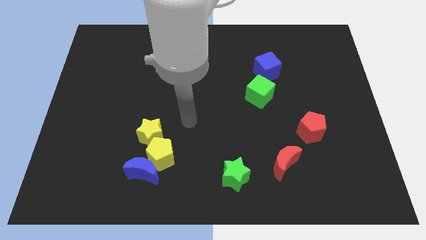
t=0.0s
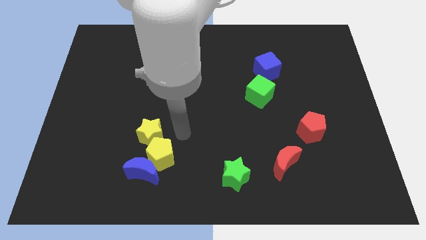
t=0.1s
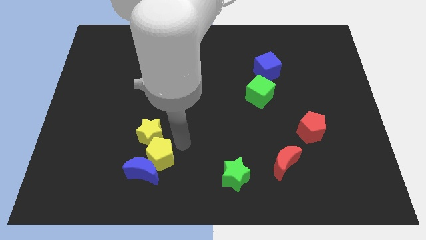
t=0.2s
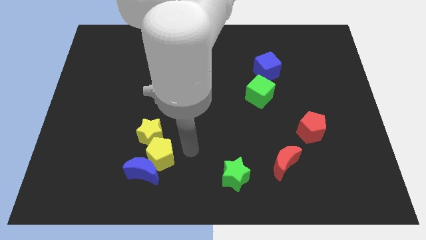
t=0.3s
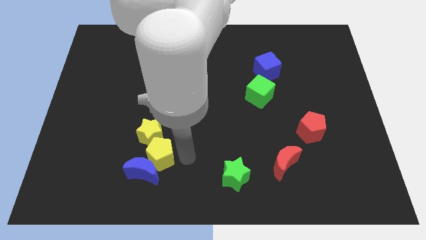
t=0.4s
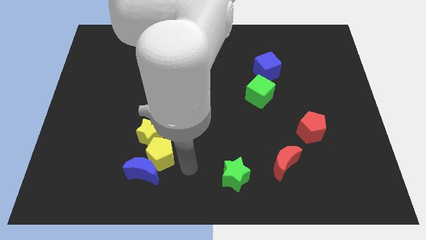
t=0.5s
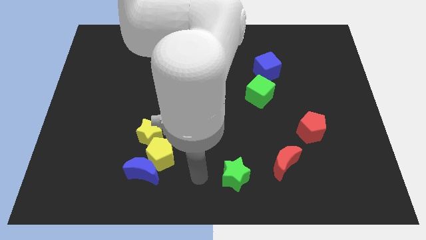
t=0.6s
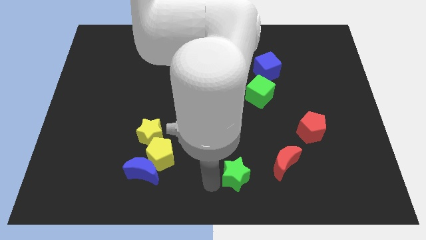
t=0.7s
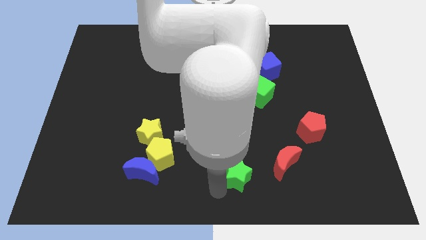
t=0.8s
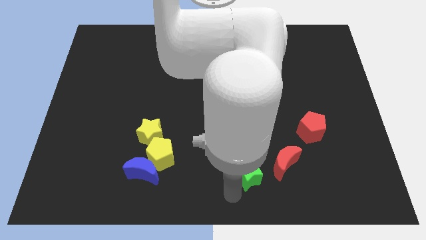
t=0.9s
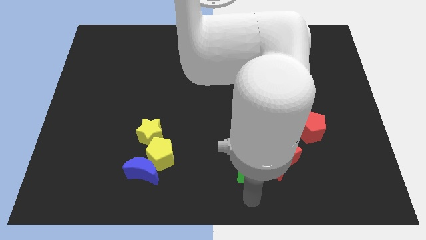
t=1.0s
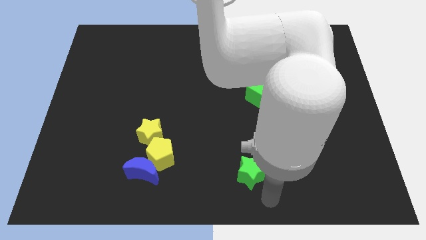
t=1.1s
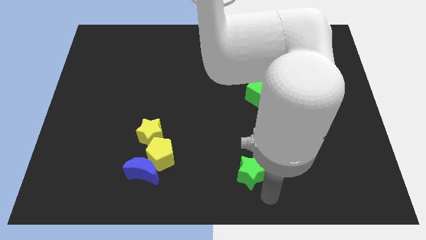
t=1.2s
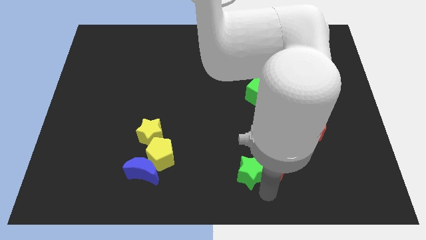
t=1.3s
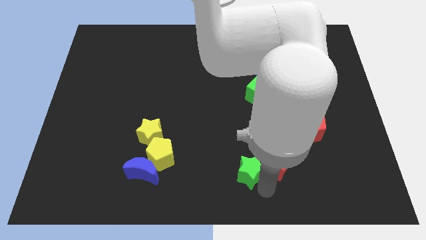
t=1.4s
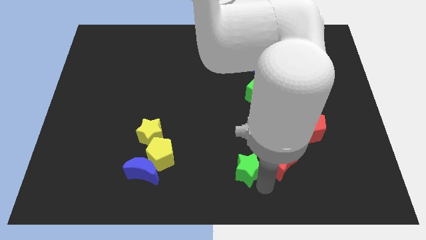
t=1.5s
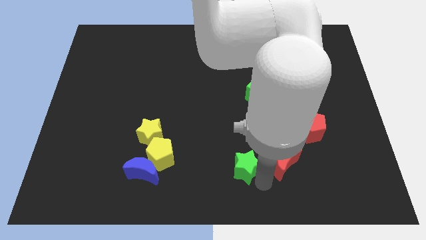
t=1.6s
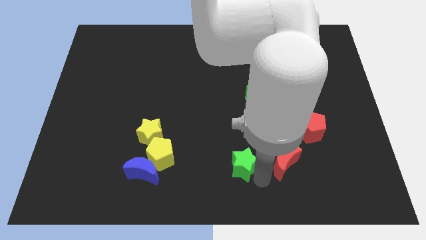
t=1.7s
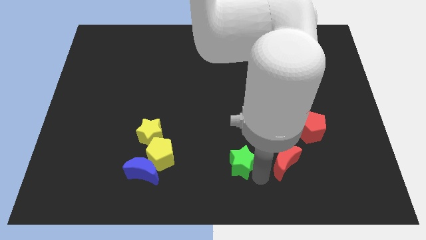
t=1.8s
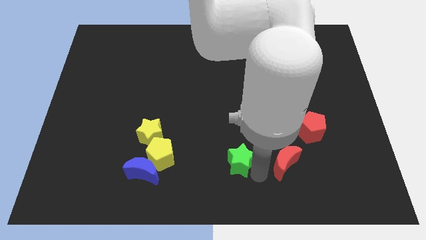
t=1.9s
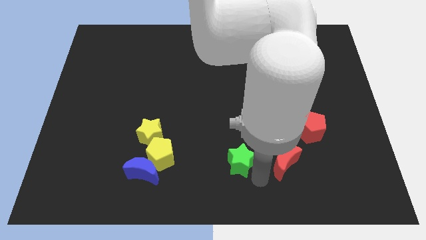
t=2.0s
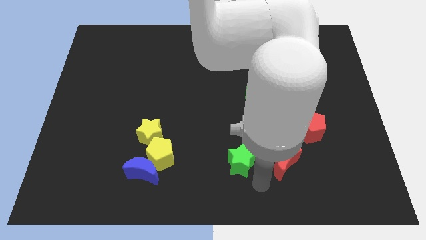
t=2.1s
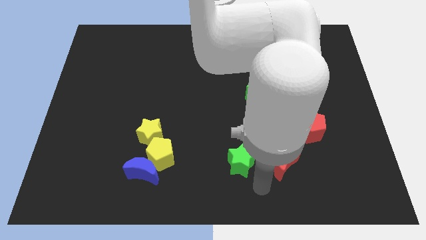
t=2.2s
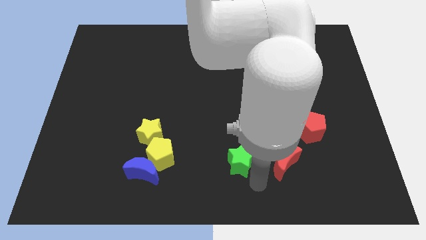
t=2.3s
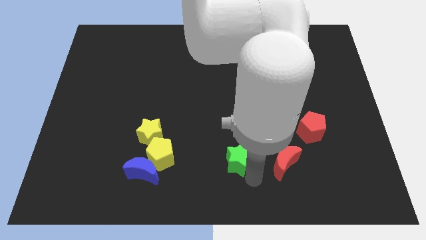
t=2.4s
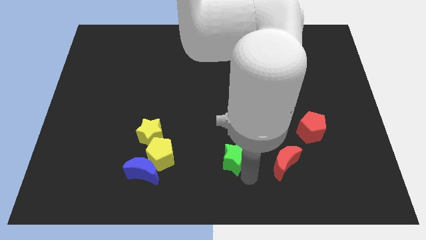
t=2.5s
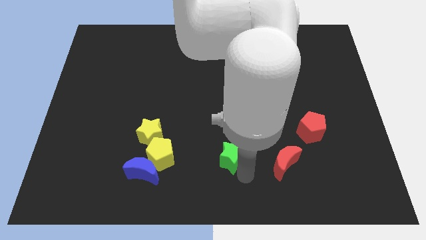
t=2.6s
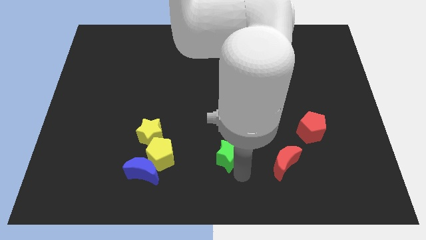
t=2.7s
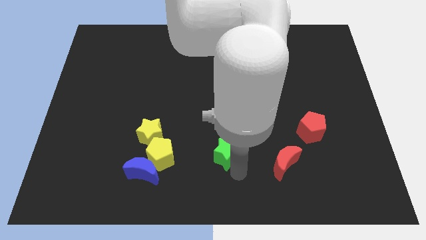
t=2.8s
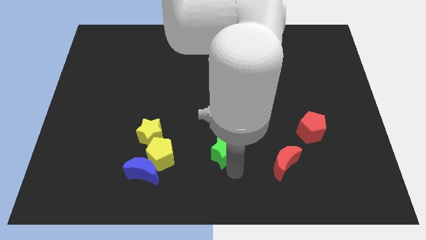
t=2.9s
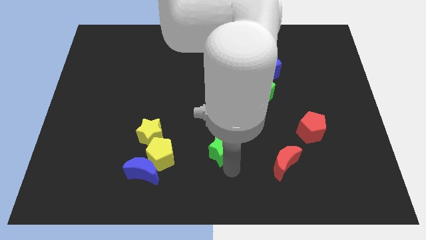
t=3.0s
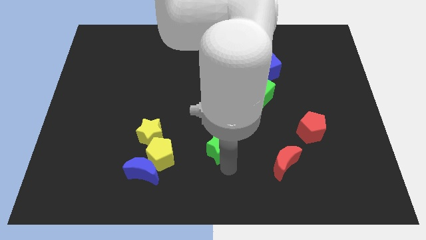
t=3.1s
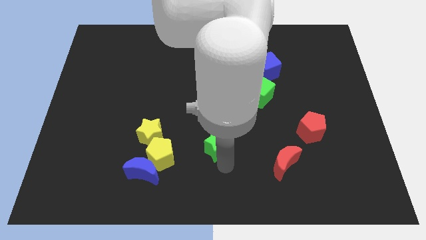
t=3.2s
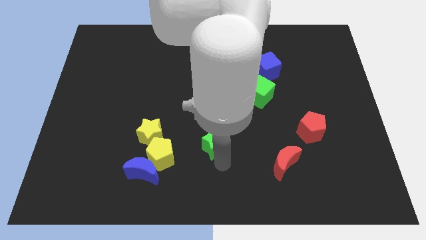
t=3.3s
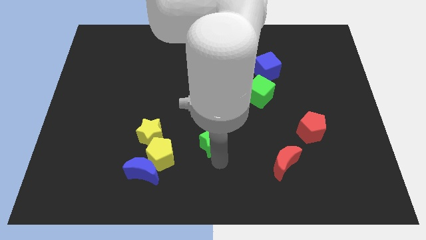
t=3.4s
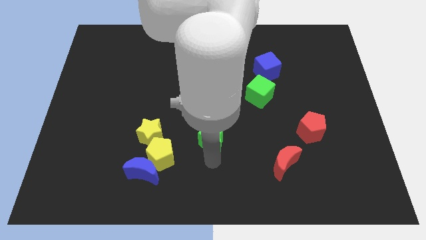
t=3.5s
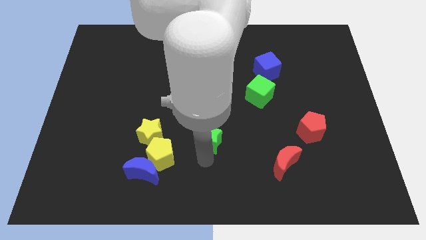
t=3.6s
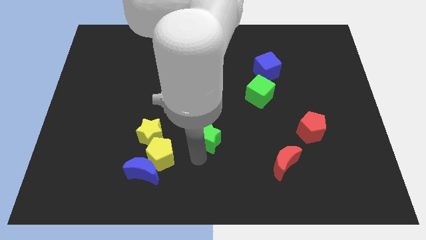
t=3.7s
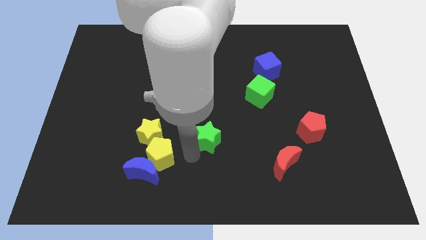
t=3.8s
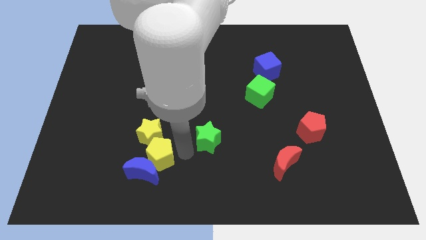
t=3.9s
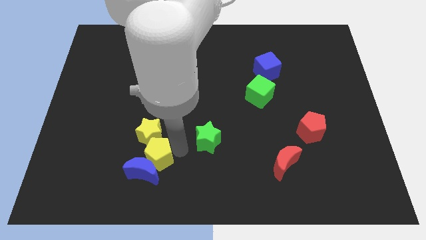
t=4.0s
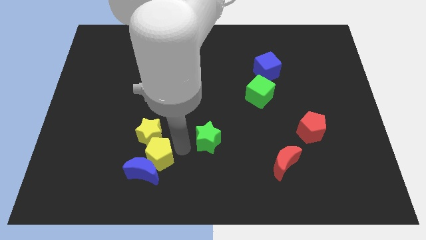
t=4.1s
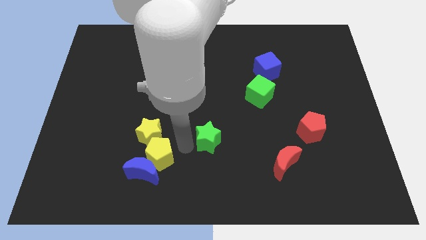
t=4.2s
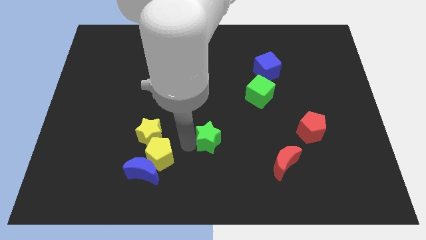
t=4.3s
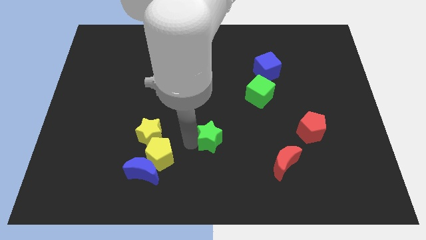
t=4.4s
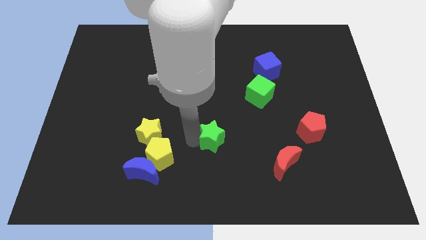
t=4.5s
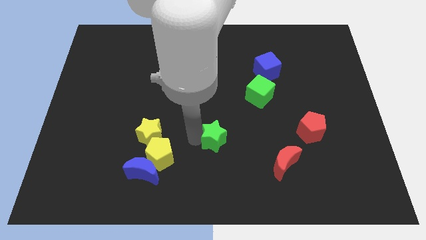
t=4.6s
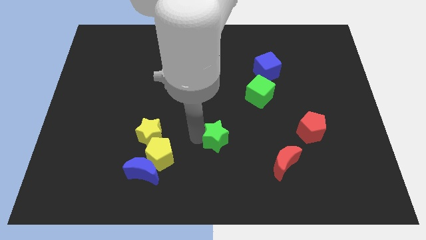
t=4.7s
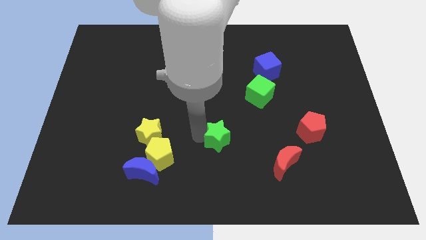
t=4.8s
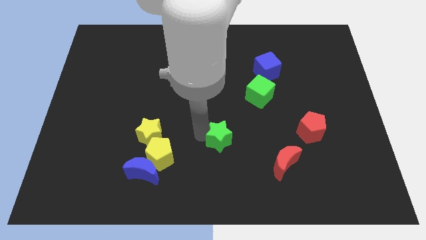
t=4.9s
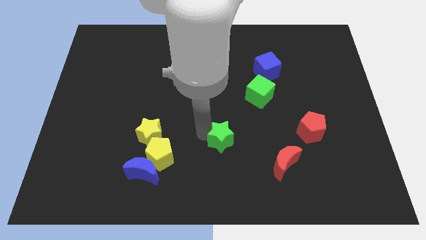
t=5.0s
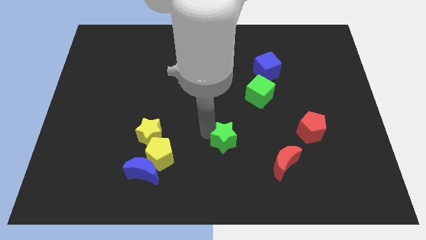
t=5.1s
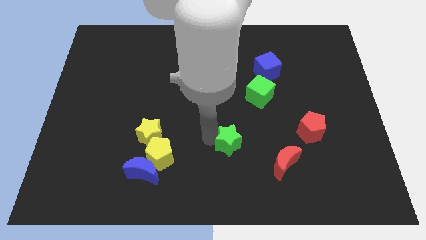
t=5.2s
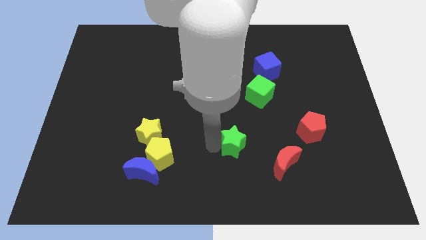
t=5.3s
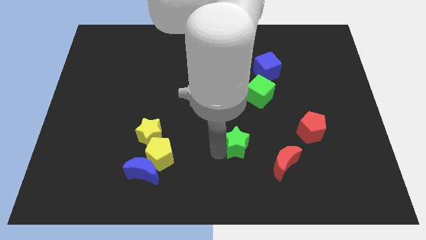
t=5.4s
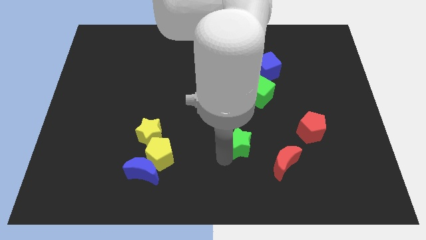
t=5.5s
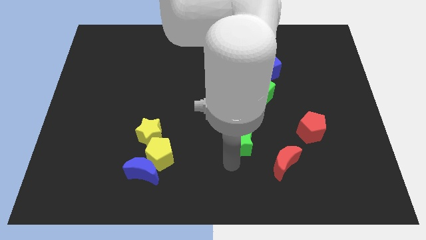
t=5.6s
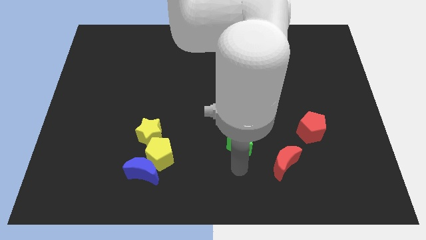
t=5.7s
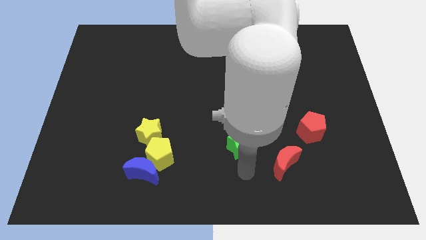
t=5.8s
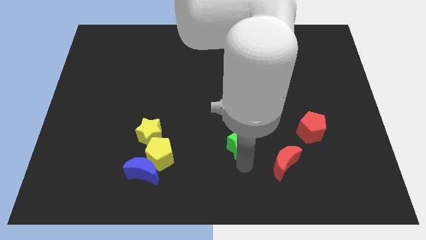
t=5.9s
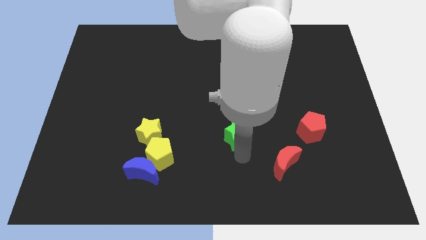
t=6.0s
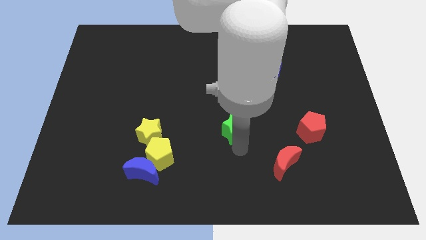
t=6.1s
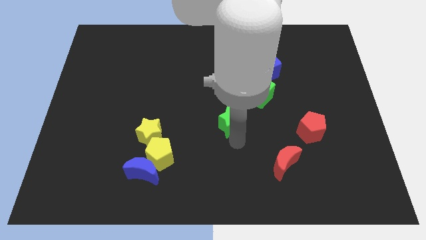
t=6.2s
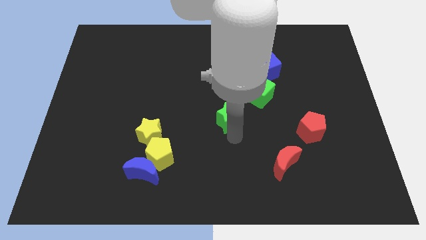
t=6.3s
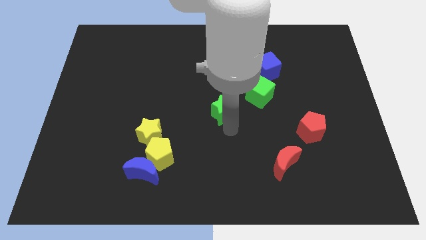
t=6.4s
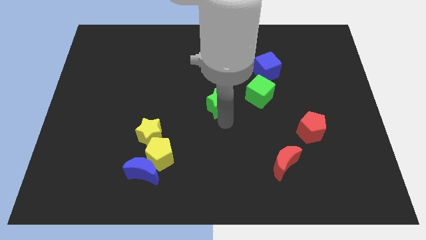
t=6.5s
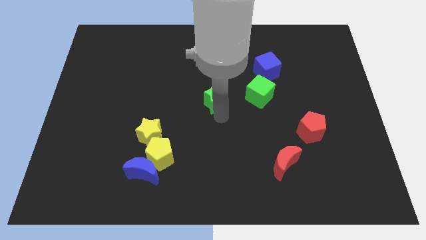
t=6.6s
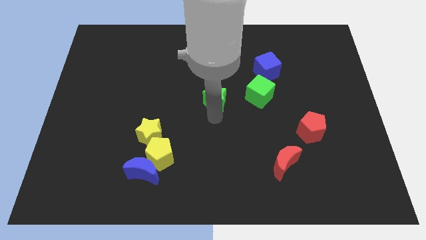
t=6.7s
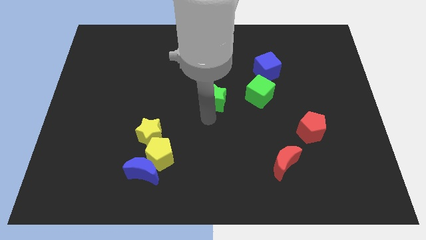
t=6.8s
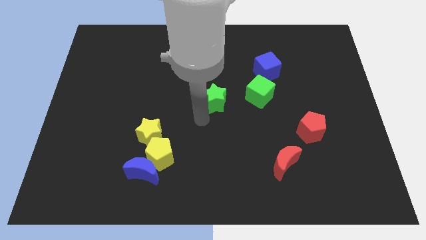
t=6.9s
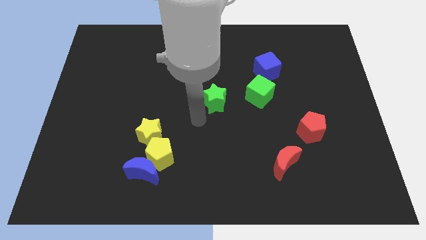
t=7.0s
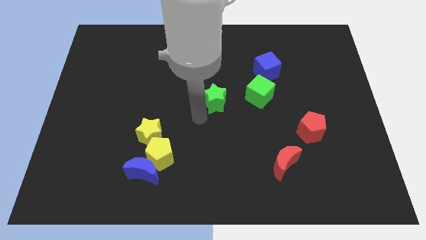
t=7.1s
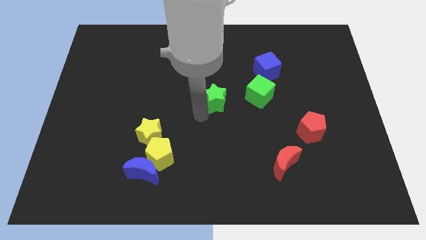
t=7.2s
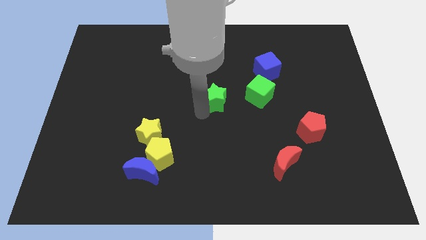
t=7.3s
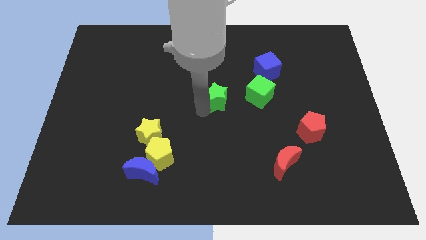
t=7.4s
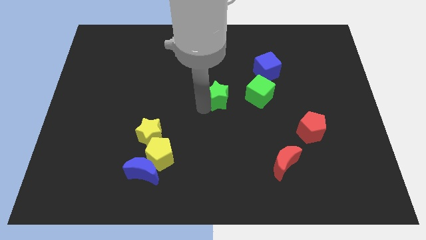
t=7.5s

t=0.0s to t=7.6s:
move the green star upwards

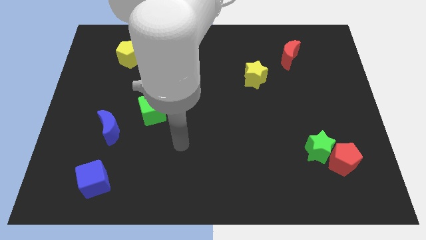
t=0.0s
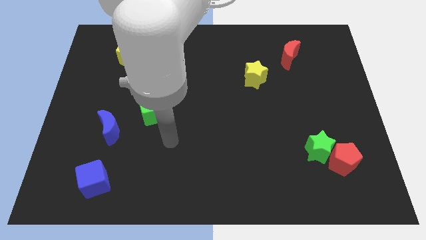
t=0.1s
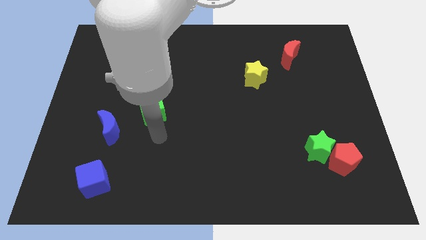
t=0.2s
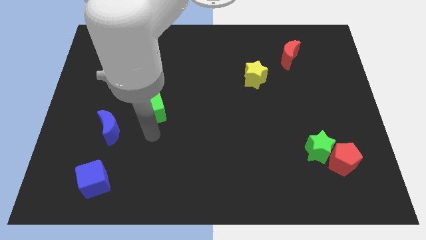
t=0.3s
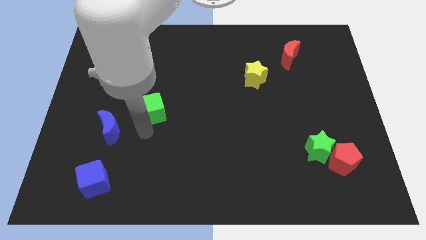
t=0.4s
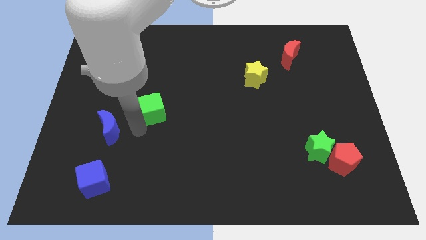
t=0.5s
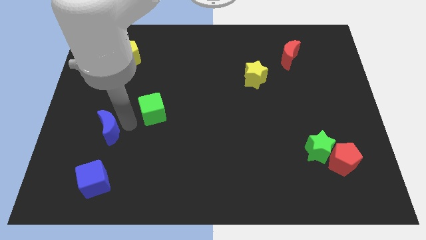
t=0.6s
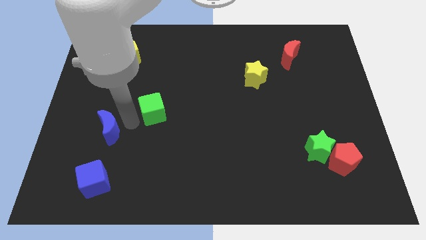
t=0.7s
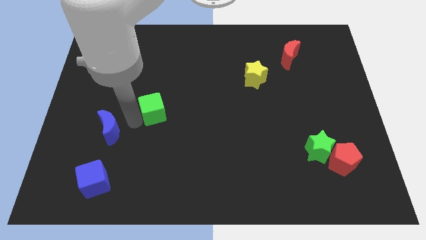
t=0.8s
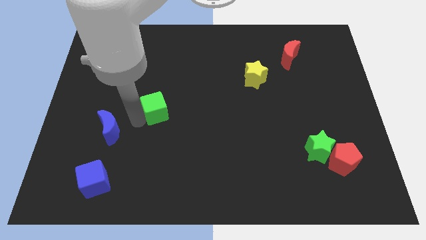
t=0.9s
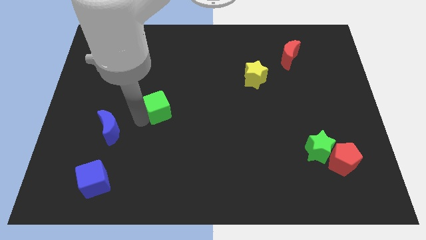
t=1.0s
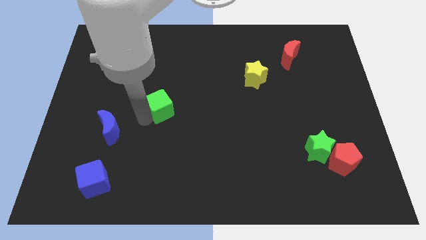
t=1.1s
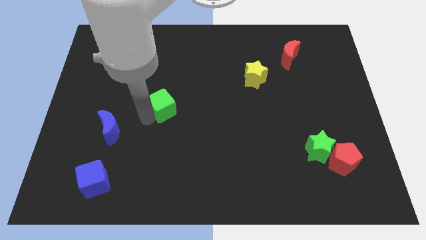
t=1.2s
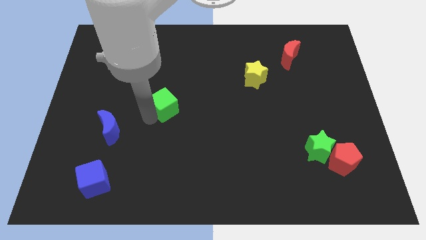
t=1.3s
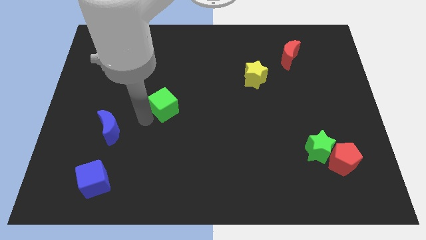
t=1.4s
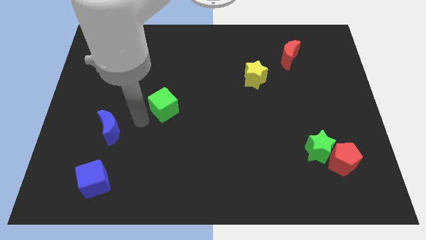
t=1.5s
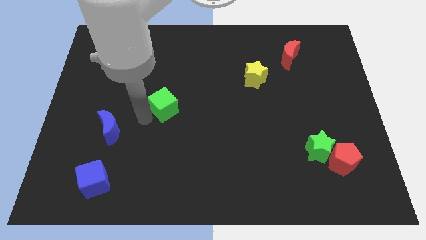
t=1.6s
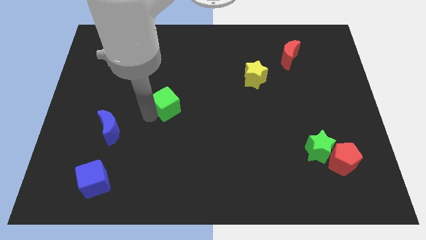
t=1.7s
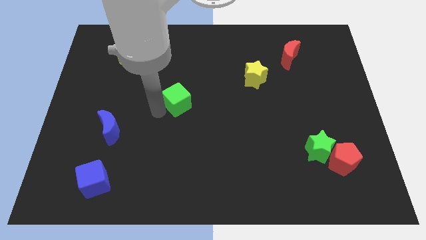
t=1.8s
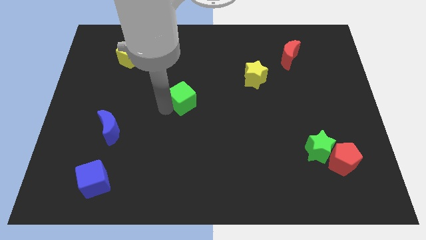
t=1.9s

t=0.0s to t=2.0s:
slightly slide the green cube upwards and right diagonally
